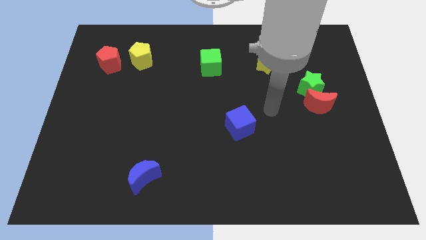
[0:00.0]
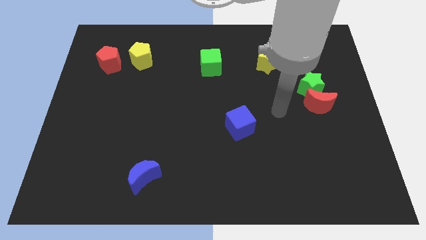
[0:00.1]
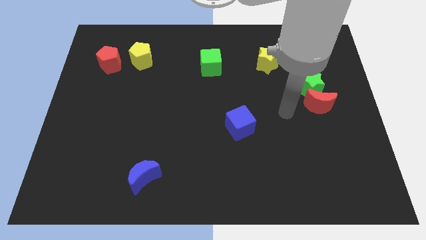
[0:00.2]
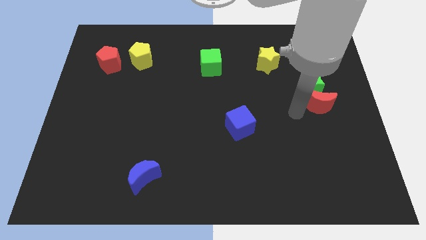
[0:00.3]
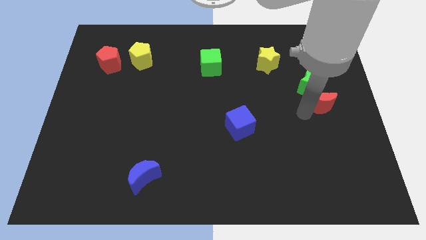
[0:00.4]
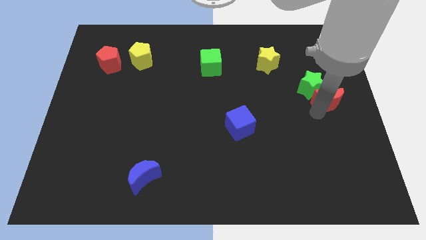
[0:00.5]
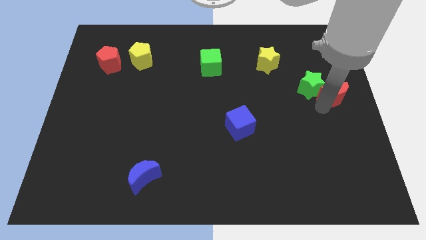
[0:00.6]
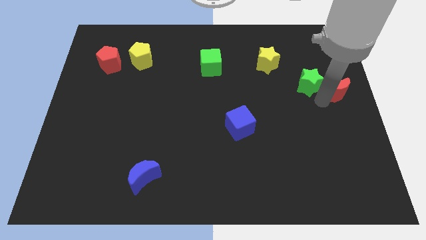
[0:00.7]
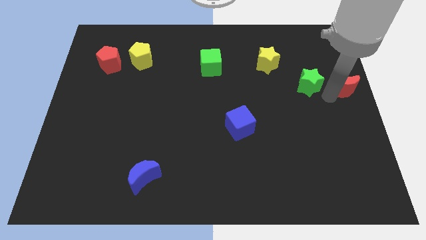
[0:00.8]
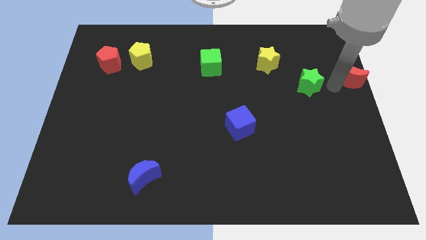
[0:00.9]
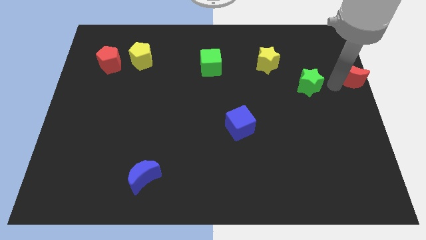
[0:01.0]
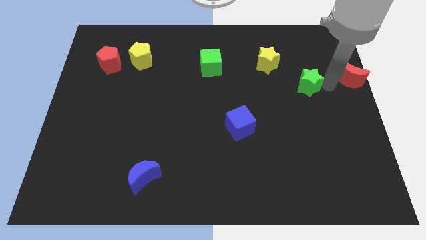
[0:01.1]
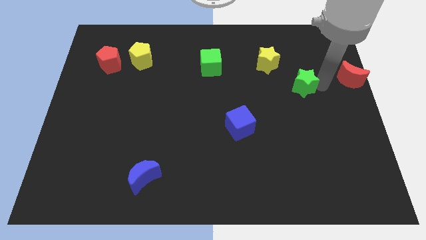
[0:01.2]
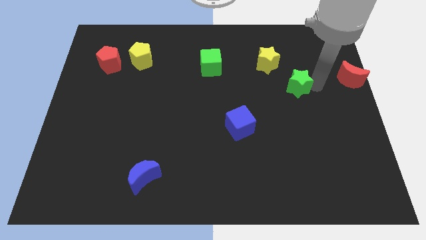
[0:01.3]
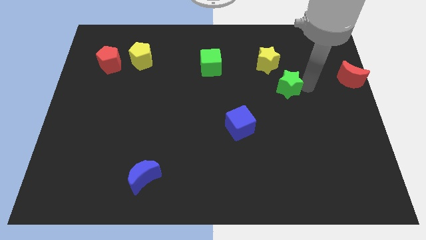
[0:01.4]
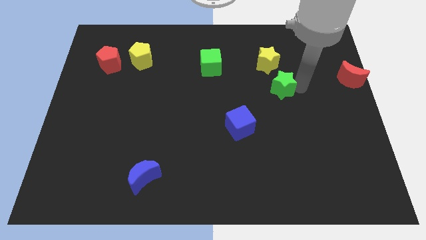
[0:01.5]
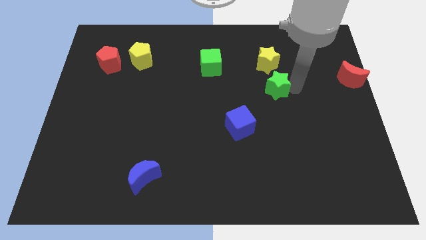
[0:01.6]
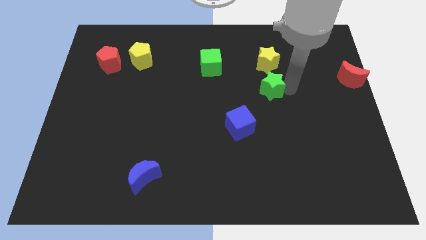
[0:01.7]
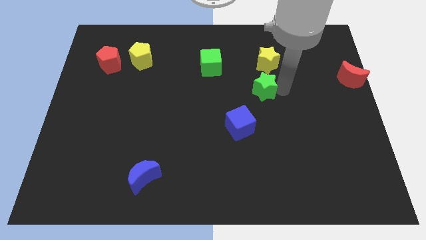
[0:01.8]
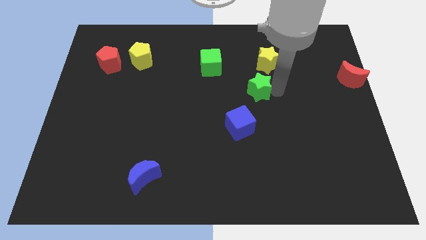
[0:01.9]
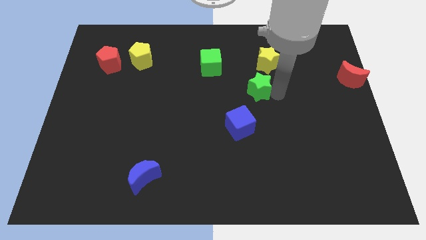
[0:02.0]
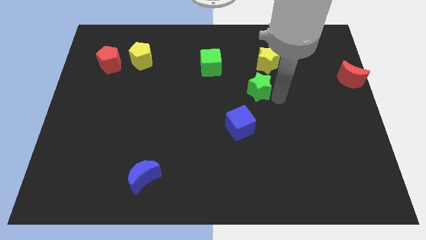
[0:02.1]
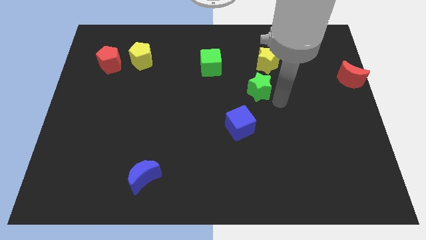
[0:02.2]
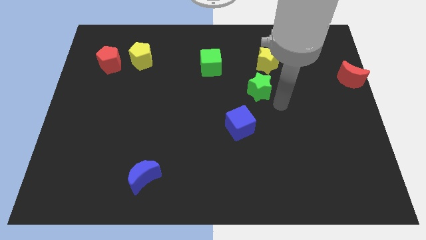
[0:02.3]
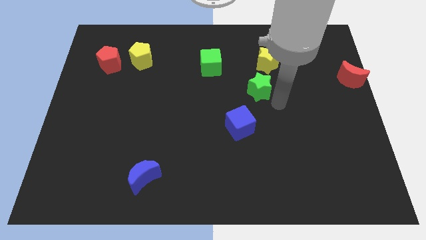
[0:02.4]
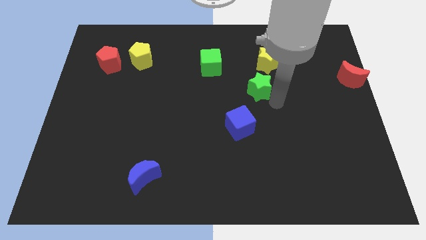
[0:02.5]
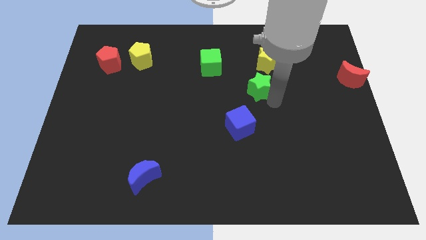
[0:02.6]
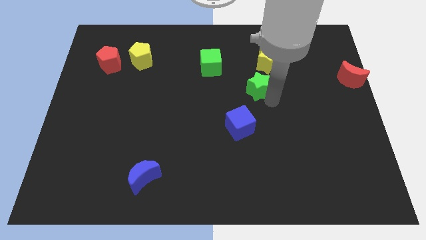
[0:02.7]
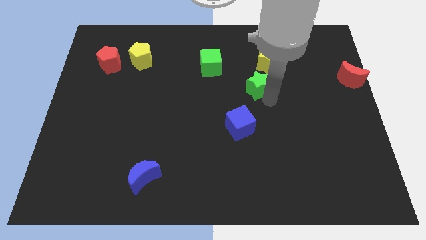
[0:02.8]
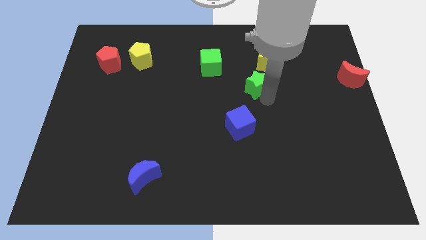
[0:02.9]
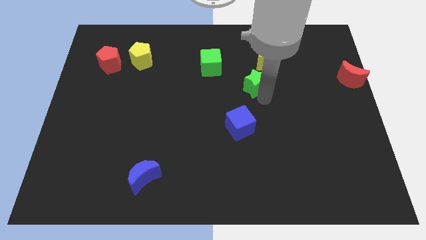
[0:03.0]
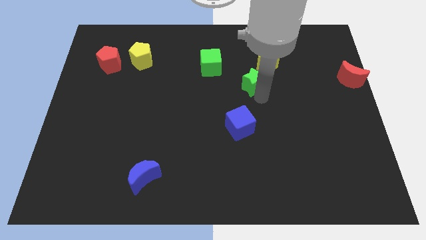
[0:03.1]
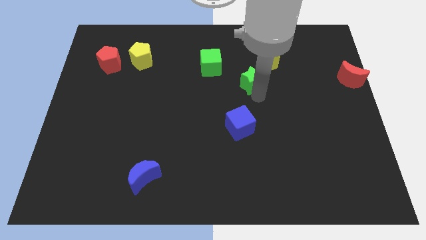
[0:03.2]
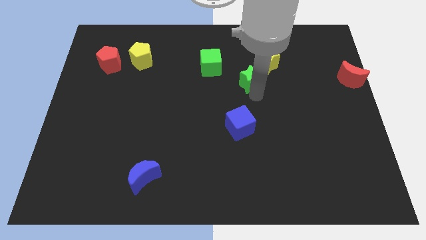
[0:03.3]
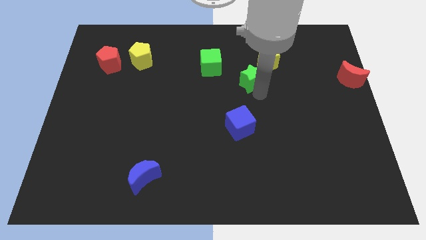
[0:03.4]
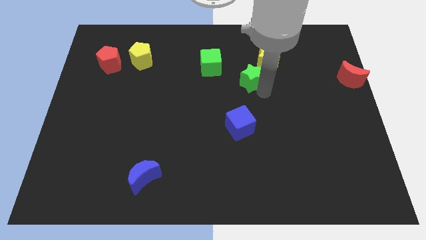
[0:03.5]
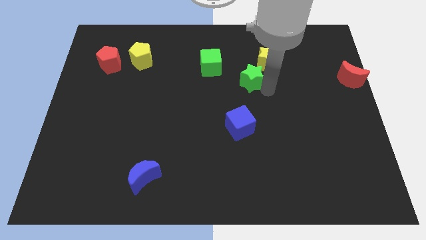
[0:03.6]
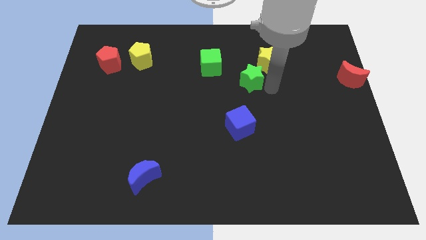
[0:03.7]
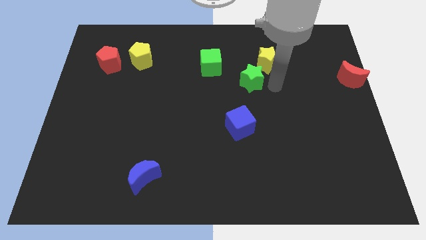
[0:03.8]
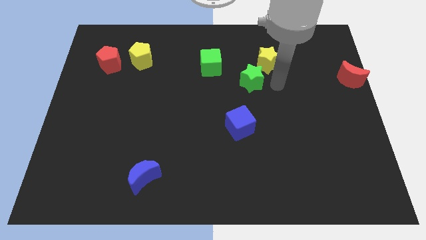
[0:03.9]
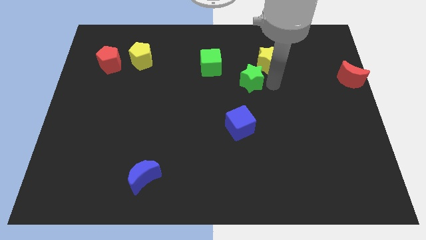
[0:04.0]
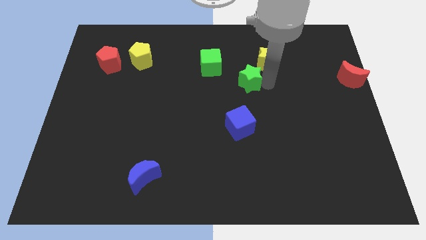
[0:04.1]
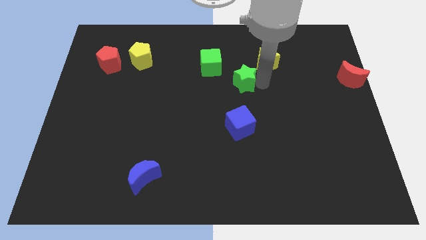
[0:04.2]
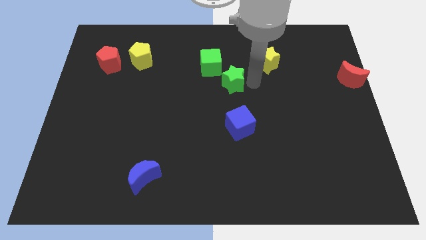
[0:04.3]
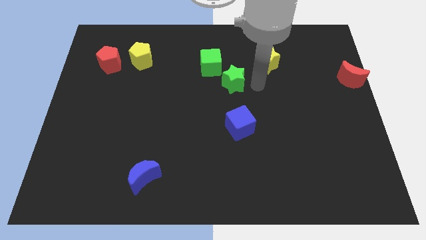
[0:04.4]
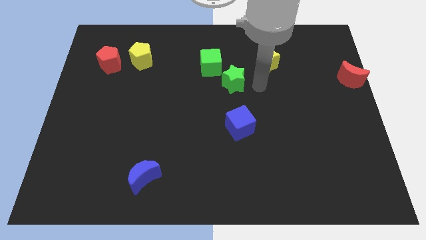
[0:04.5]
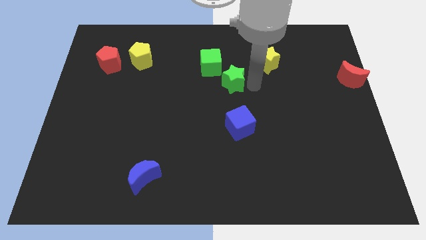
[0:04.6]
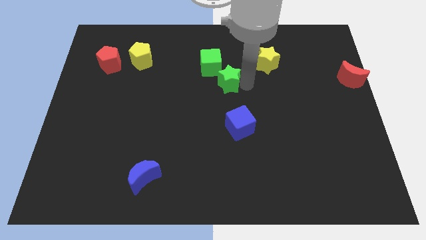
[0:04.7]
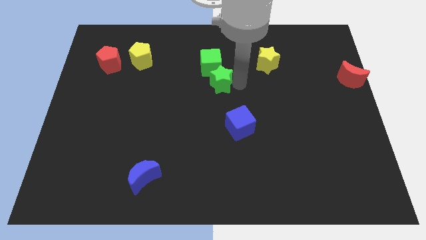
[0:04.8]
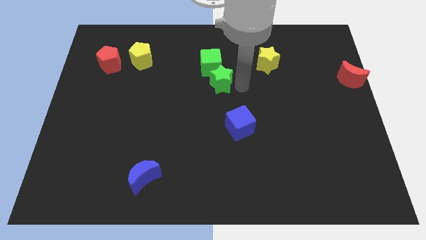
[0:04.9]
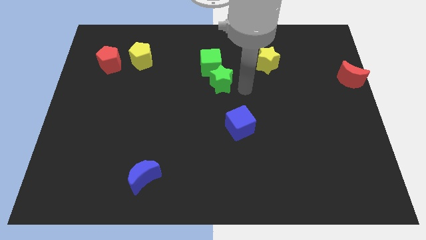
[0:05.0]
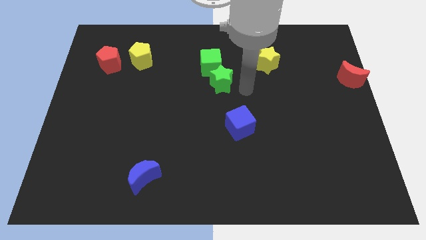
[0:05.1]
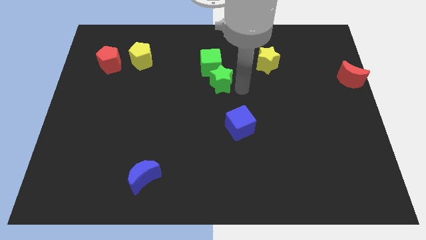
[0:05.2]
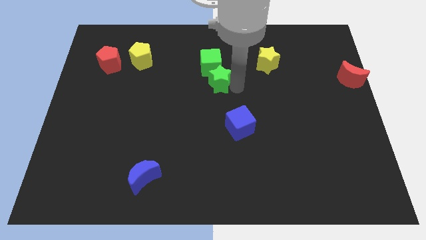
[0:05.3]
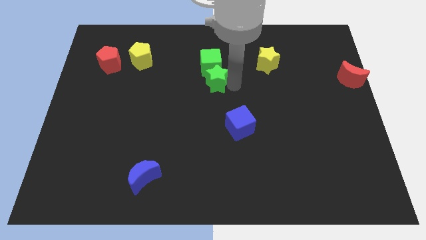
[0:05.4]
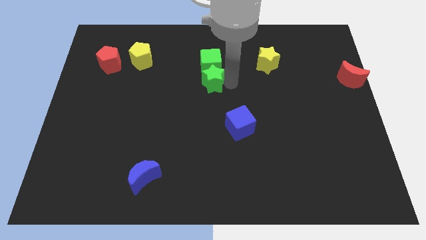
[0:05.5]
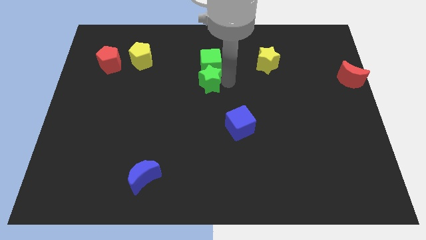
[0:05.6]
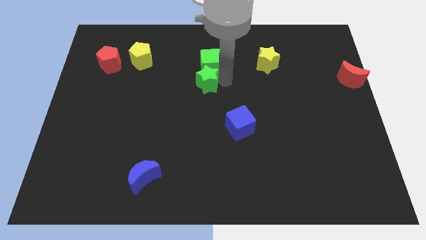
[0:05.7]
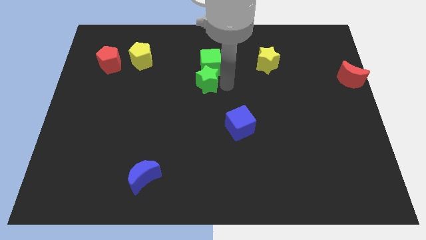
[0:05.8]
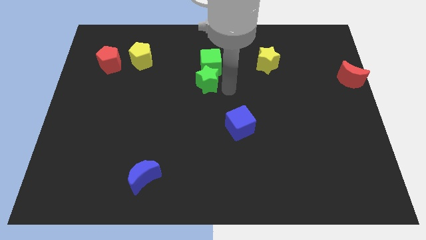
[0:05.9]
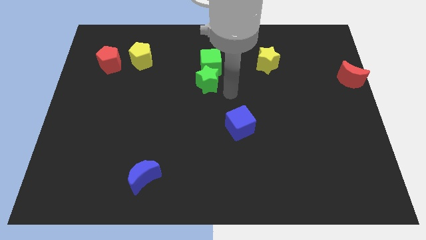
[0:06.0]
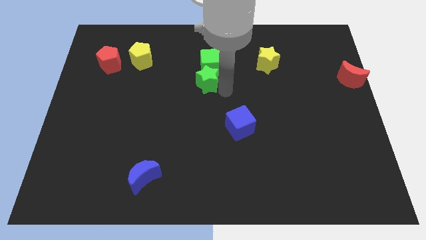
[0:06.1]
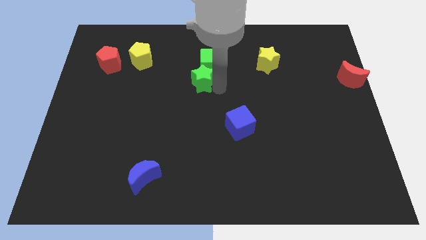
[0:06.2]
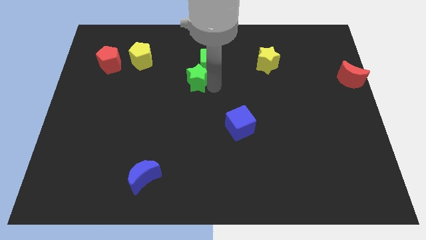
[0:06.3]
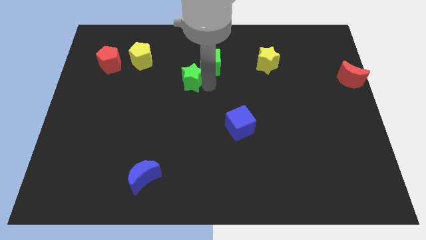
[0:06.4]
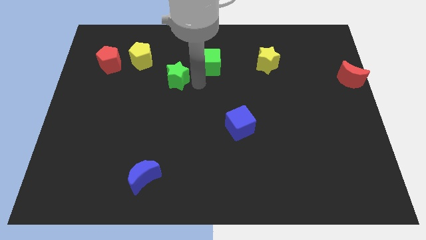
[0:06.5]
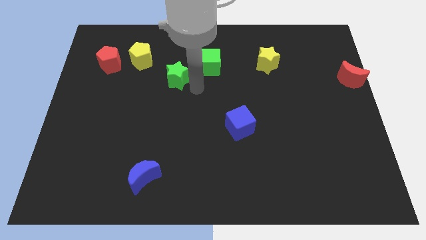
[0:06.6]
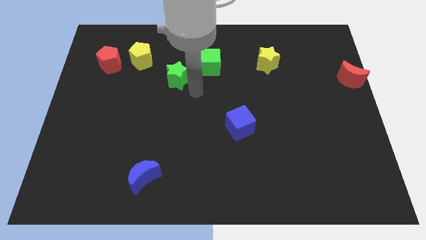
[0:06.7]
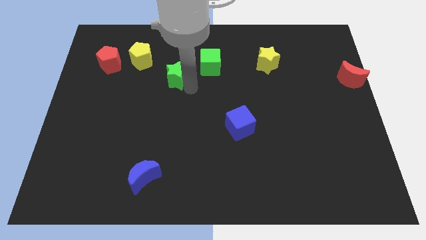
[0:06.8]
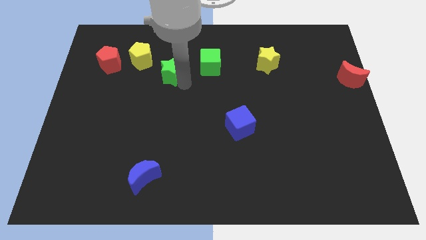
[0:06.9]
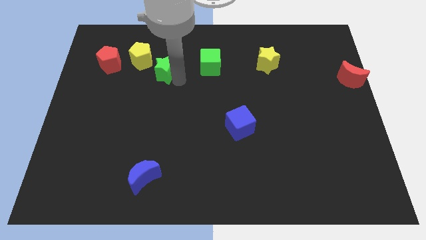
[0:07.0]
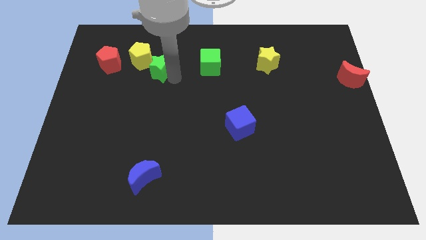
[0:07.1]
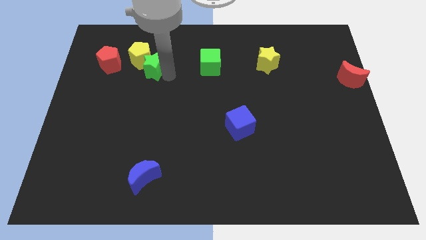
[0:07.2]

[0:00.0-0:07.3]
put the green star to the yellow pentagon
